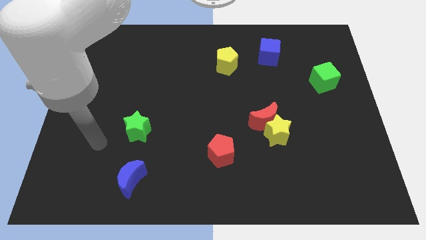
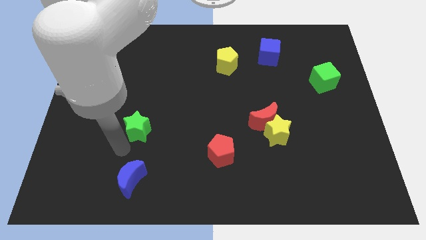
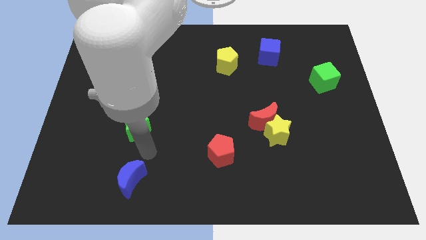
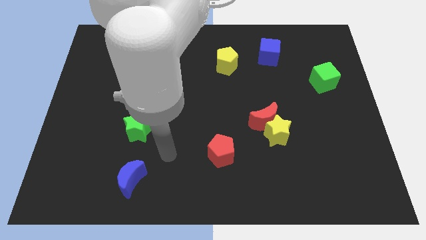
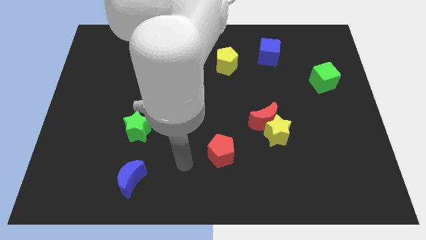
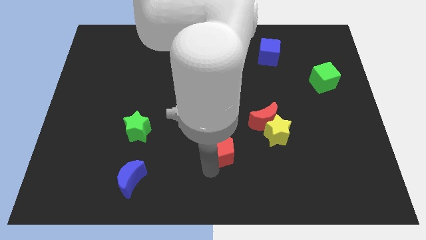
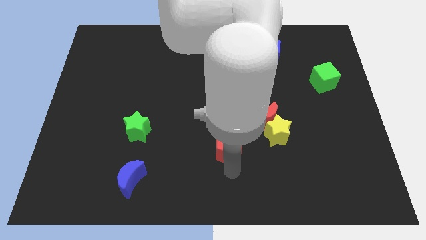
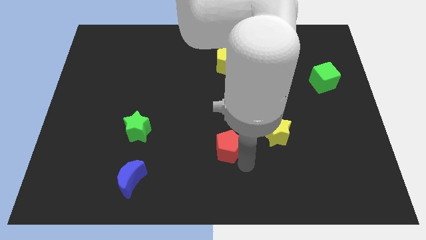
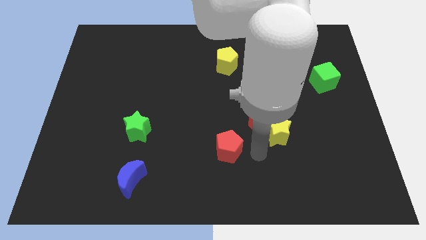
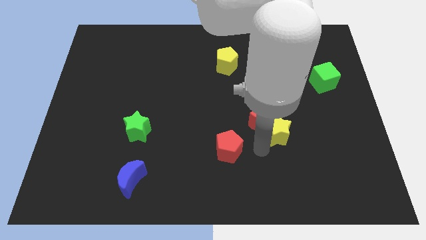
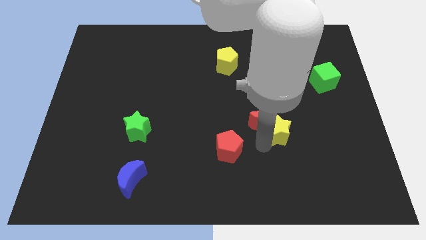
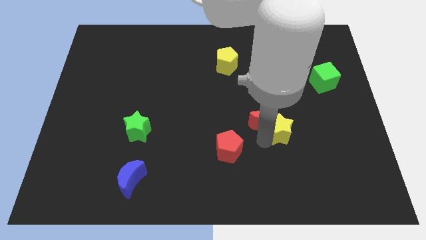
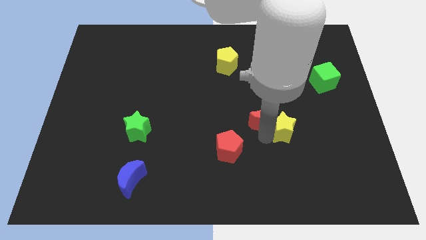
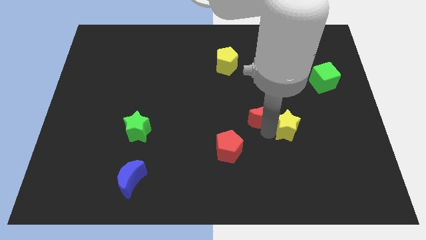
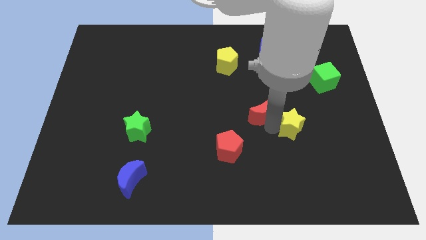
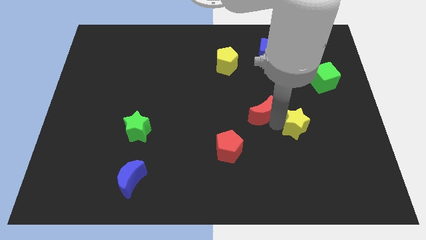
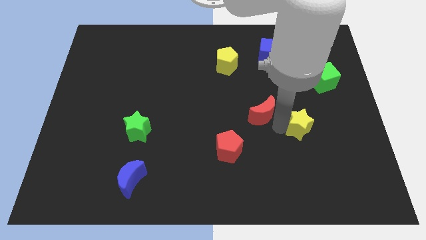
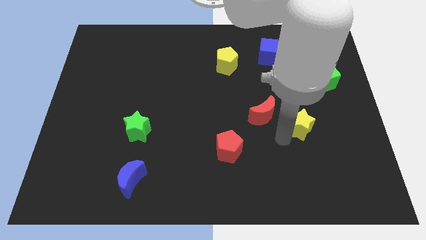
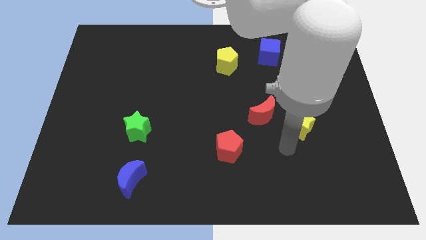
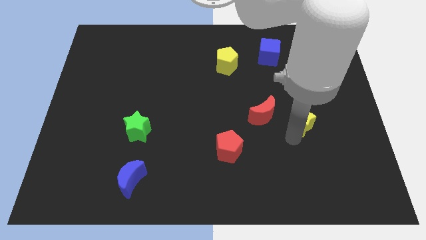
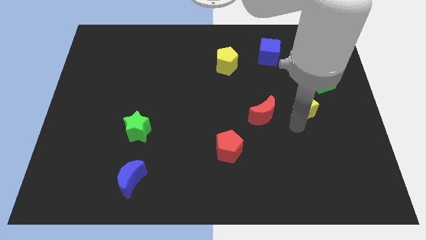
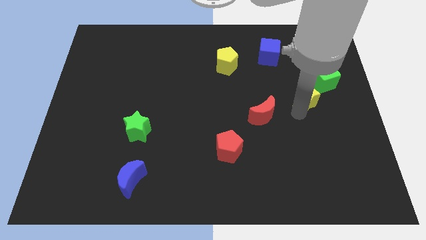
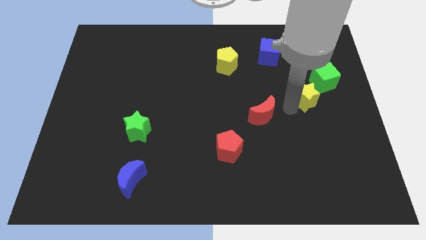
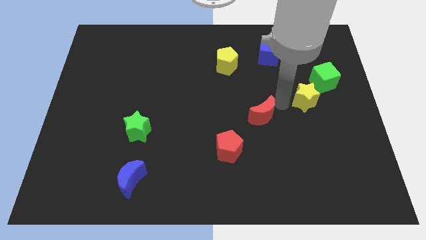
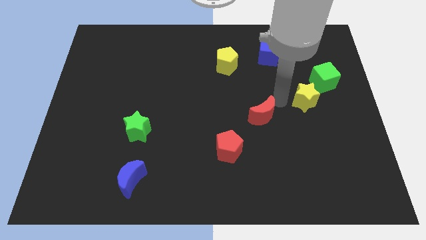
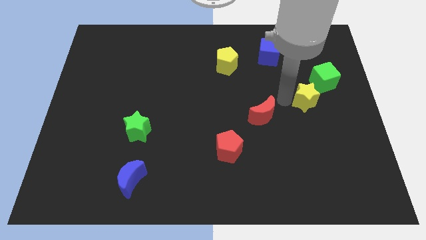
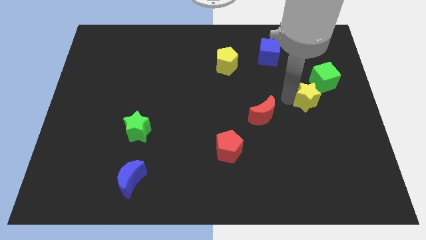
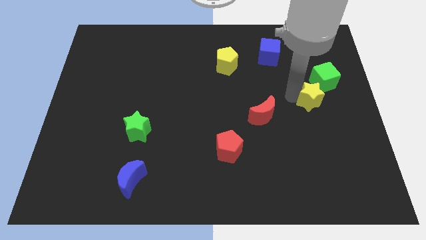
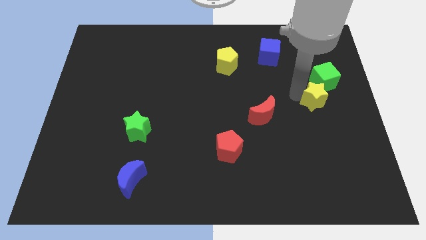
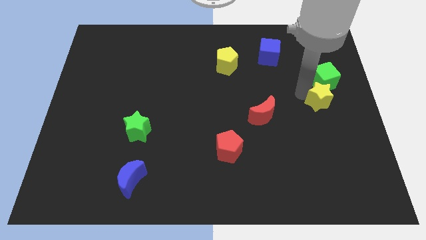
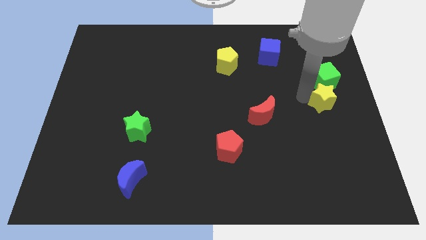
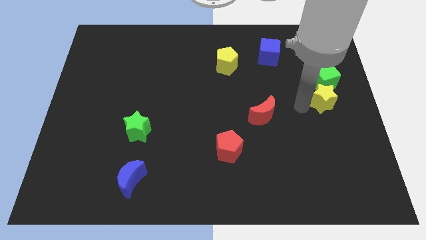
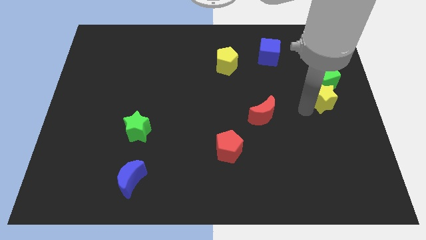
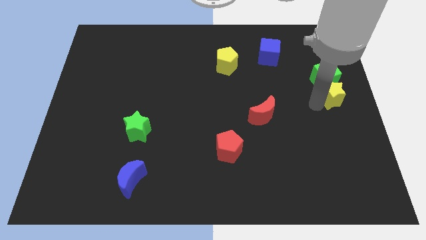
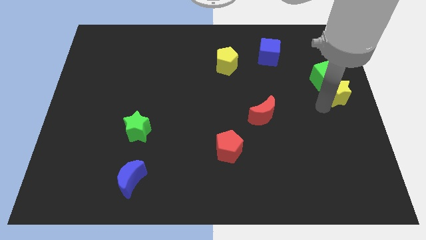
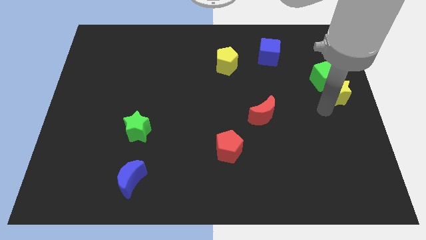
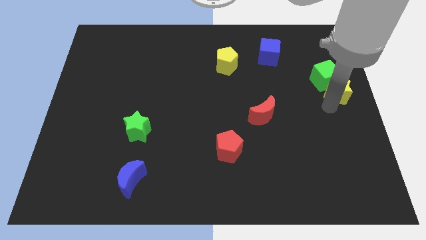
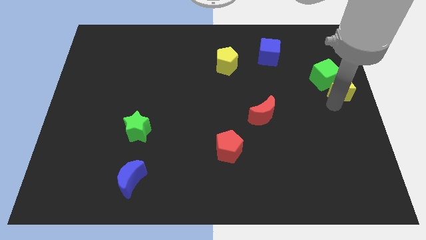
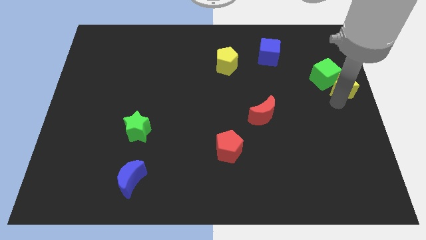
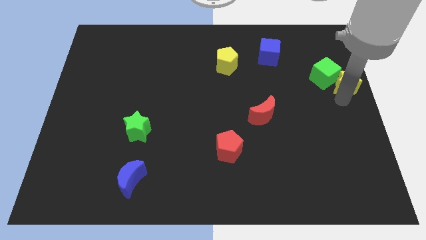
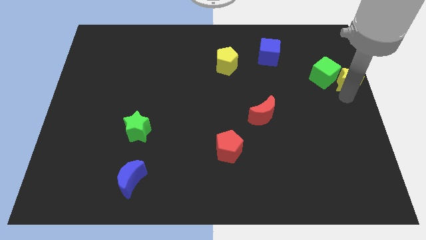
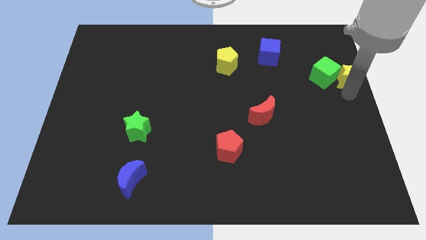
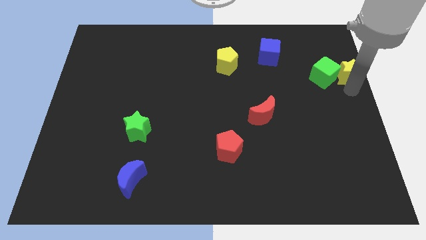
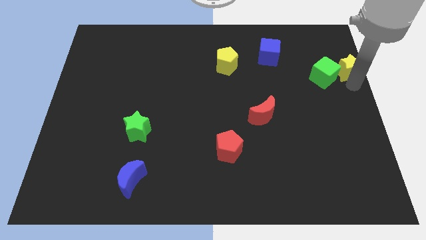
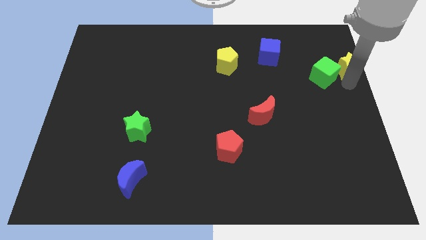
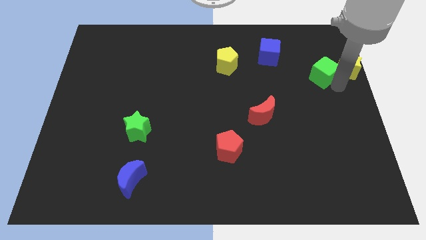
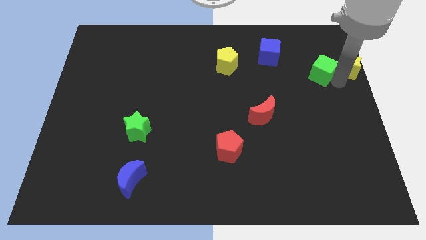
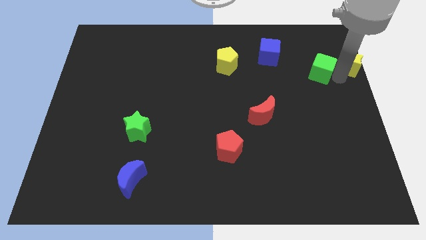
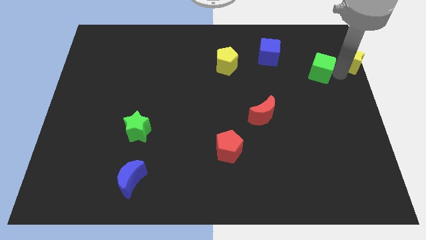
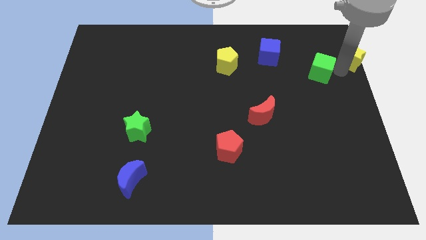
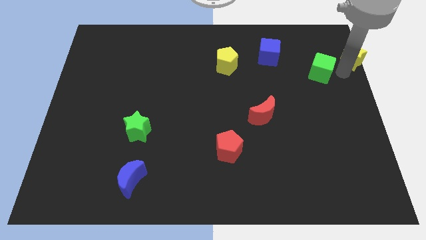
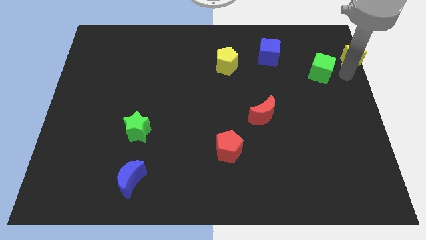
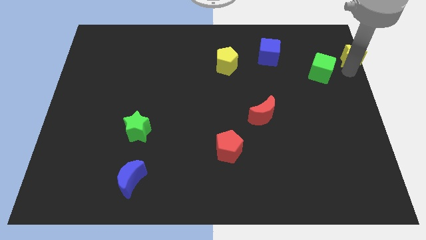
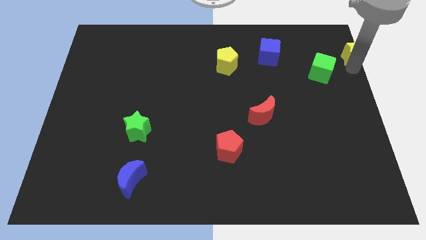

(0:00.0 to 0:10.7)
push the yellow star to the top right corner

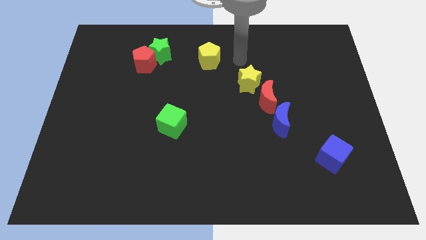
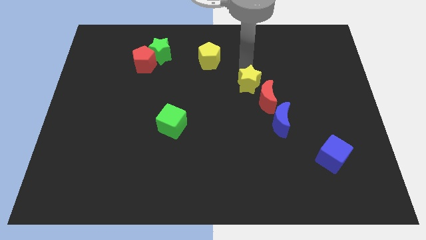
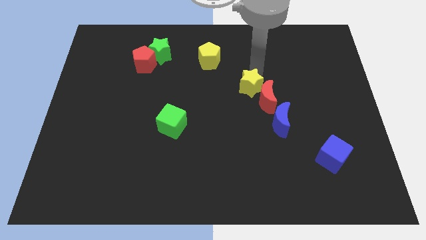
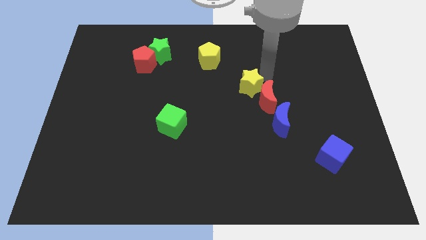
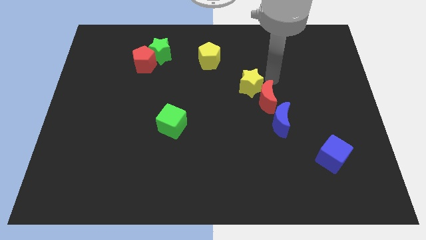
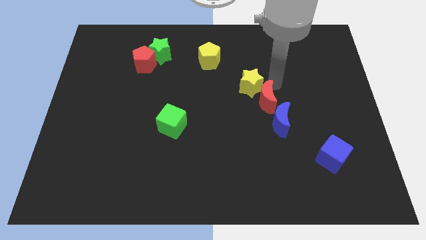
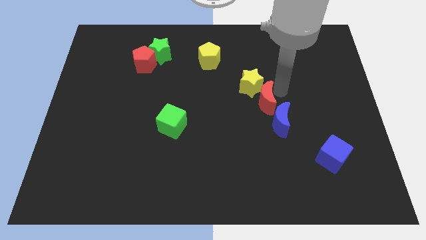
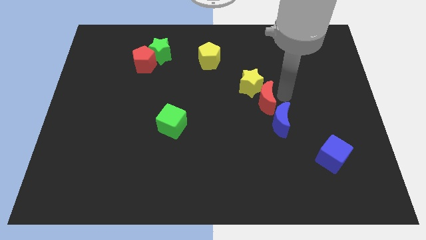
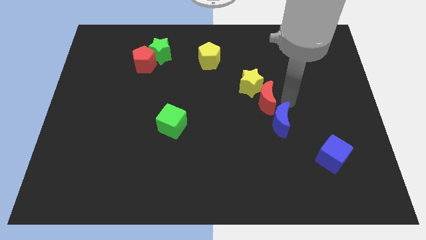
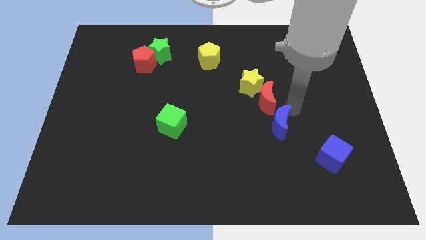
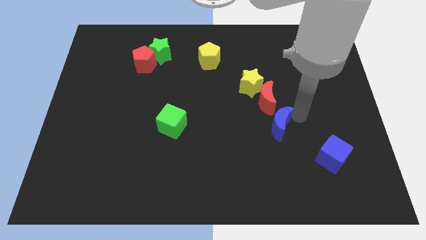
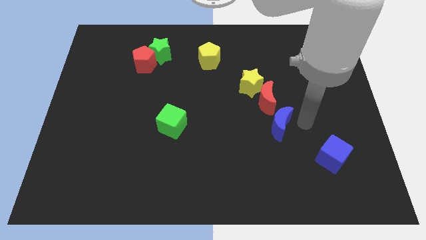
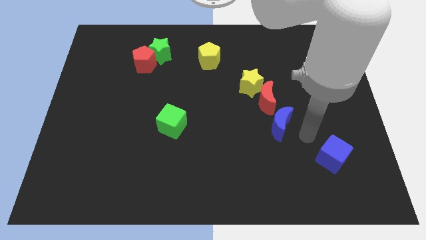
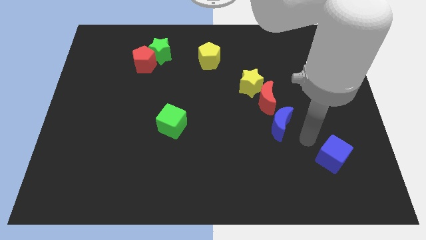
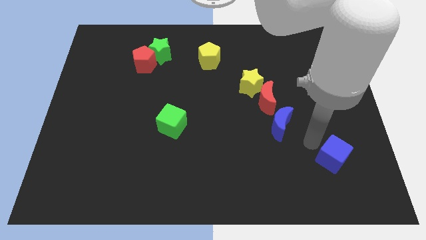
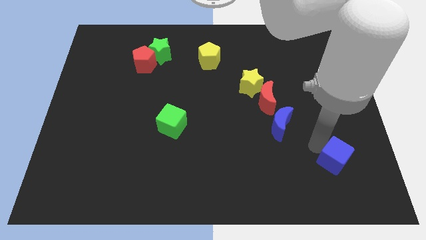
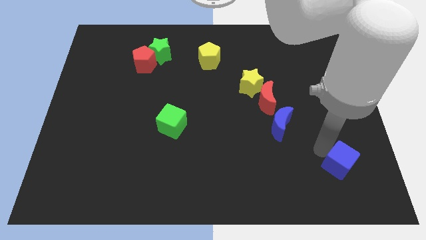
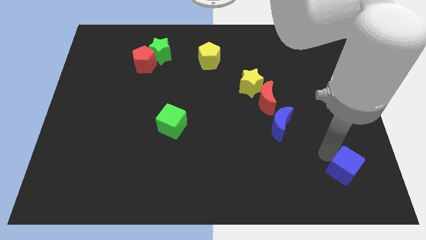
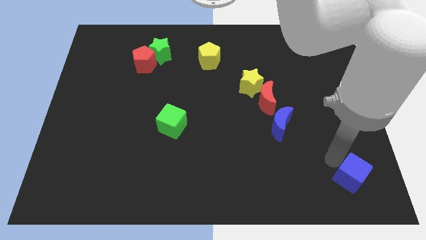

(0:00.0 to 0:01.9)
move the blue cube to the bottom right of the board
